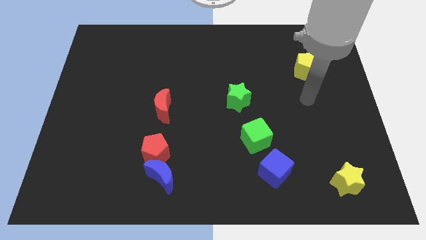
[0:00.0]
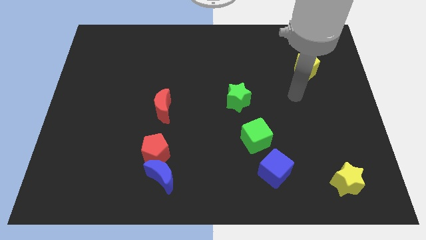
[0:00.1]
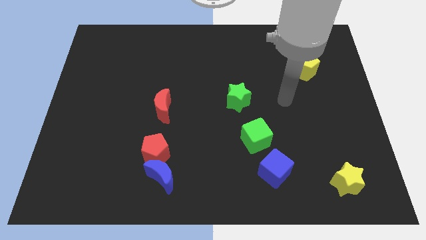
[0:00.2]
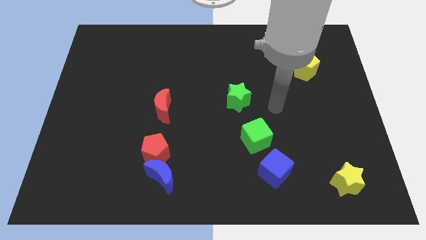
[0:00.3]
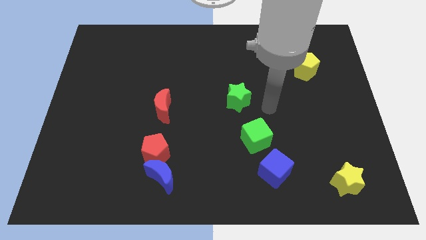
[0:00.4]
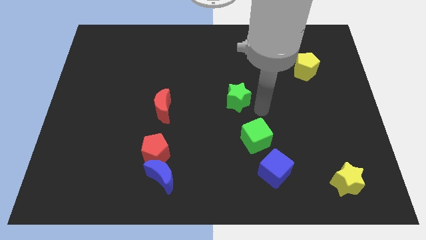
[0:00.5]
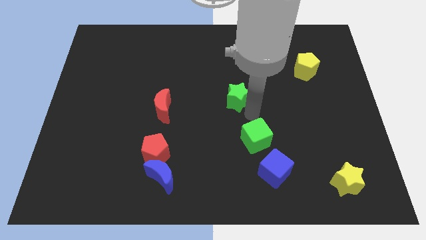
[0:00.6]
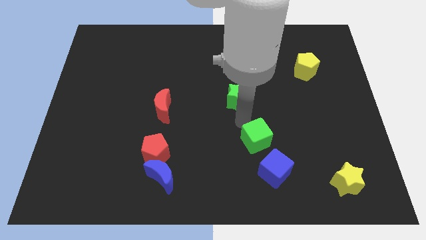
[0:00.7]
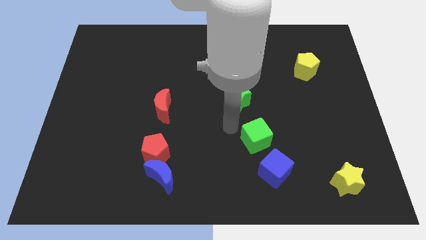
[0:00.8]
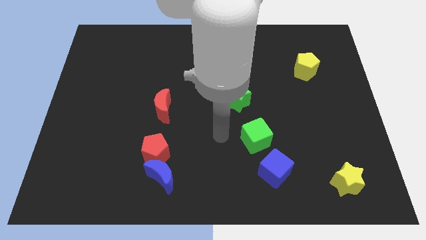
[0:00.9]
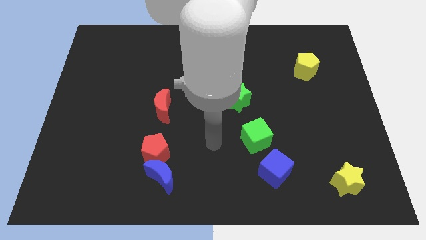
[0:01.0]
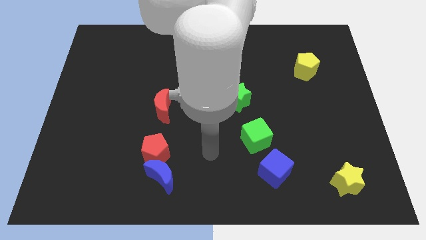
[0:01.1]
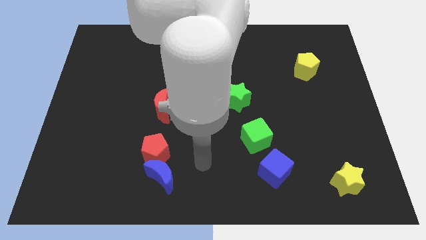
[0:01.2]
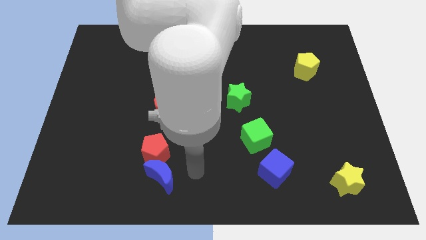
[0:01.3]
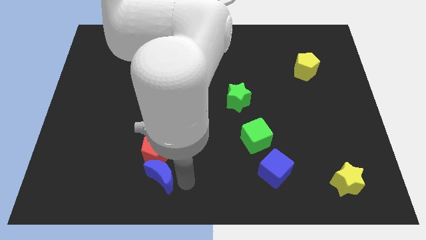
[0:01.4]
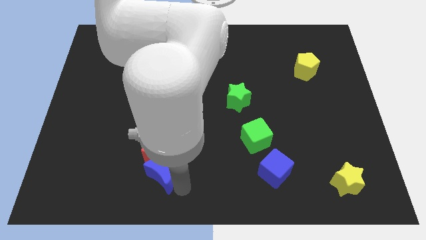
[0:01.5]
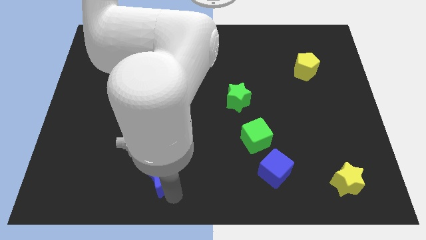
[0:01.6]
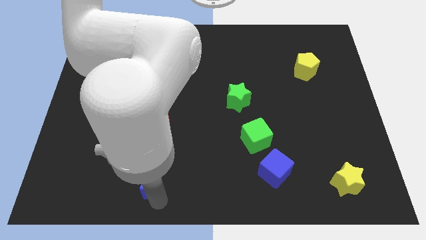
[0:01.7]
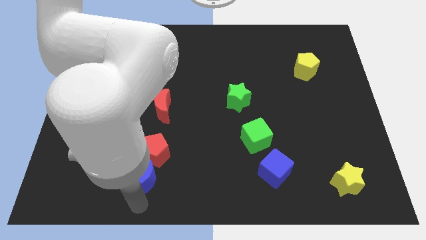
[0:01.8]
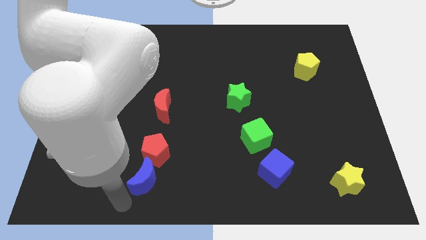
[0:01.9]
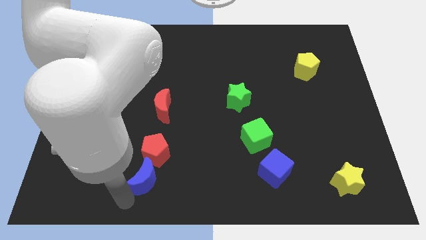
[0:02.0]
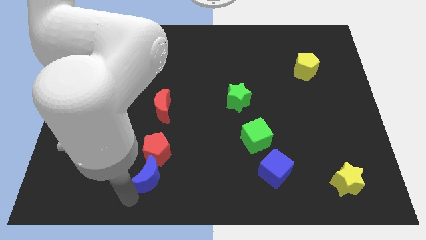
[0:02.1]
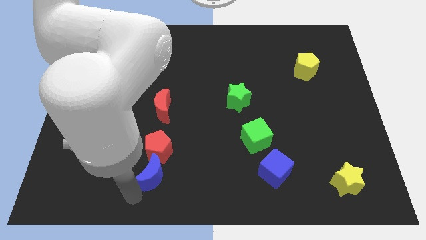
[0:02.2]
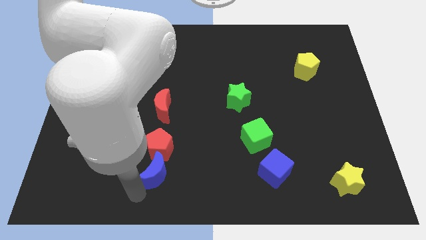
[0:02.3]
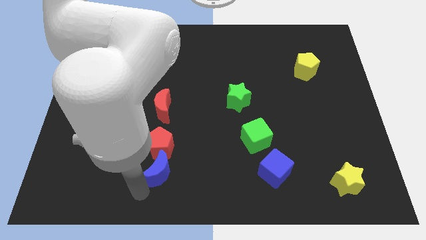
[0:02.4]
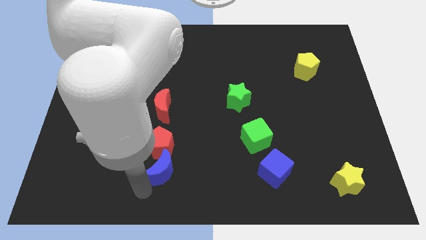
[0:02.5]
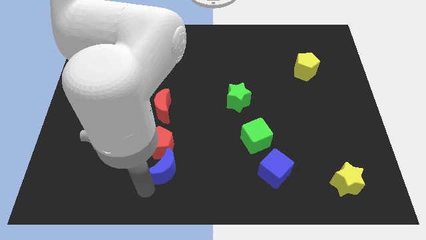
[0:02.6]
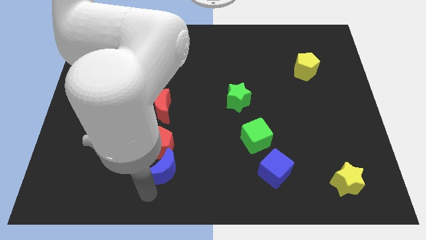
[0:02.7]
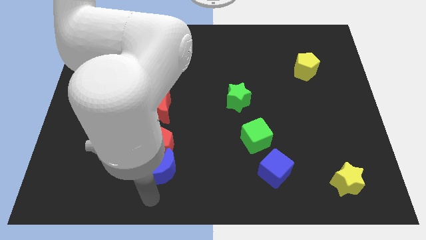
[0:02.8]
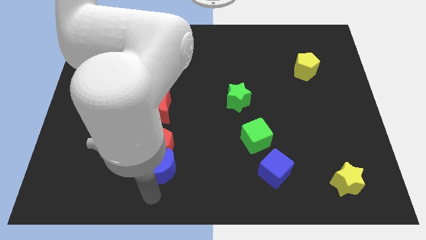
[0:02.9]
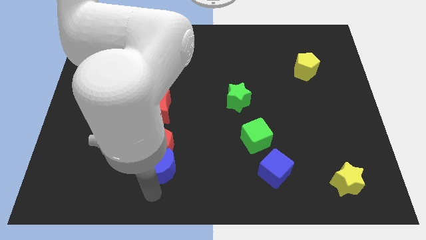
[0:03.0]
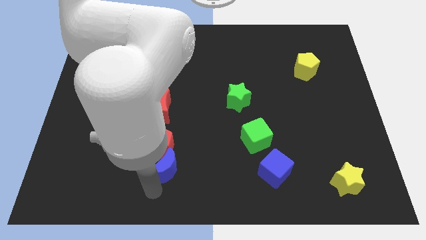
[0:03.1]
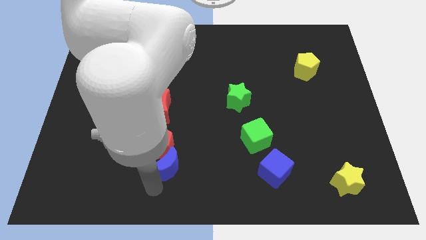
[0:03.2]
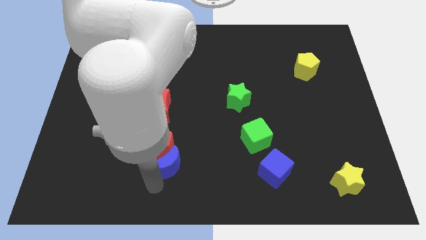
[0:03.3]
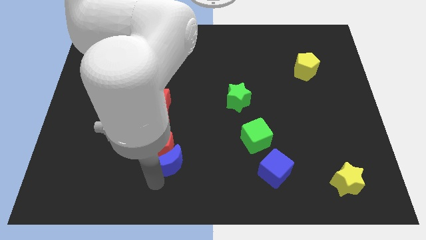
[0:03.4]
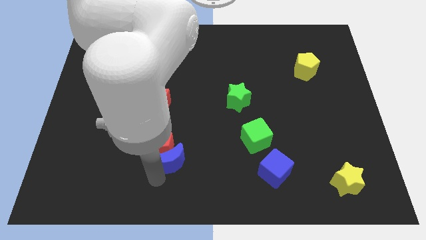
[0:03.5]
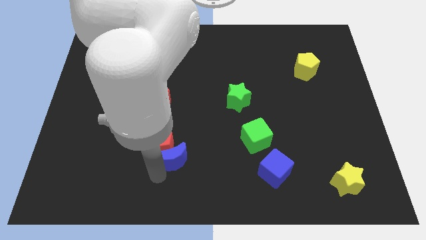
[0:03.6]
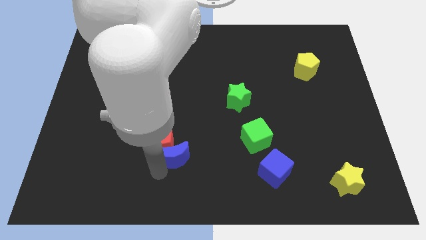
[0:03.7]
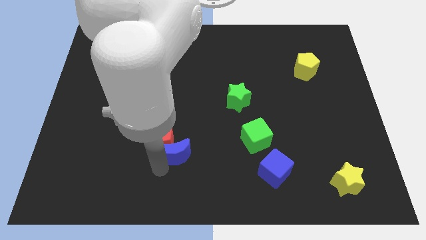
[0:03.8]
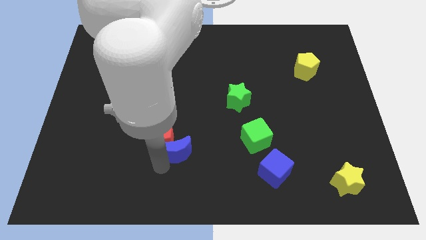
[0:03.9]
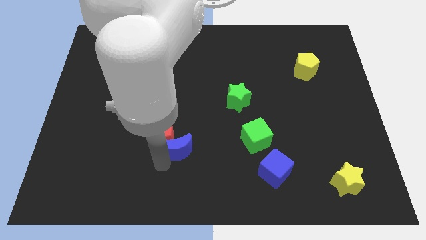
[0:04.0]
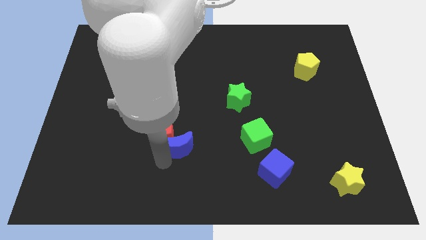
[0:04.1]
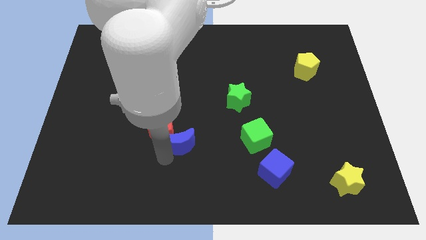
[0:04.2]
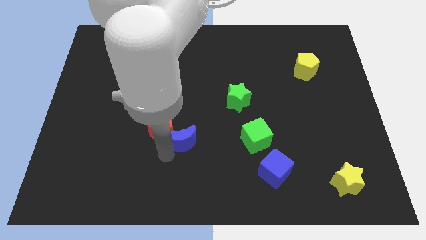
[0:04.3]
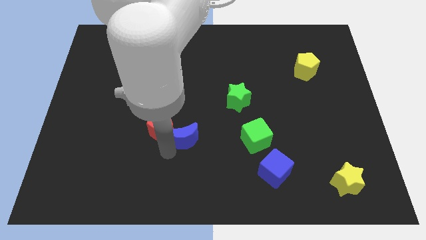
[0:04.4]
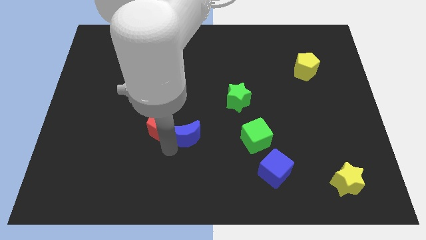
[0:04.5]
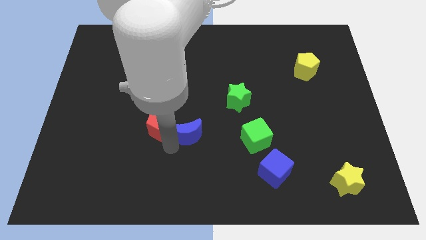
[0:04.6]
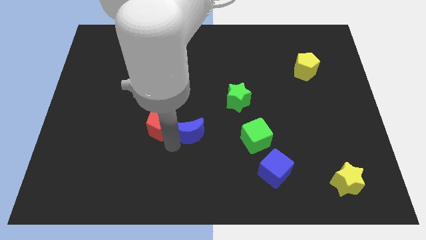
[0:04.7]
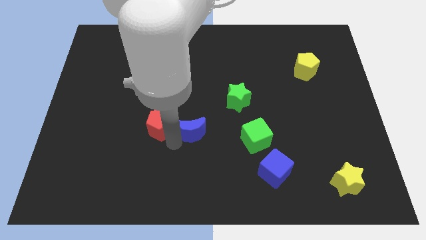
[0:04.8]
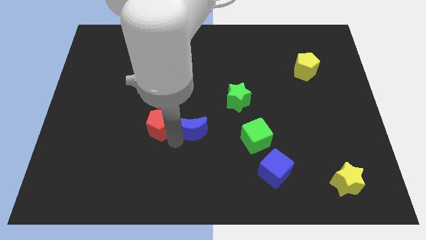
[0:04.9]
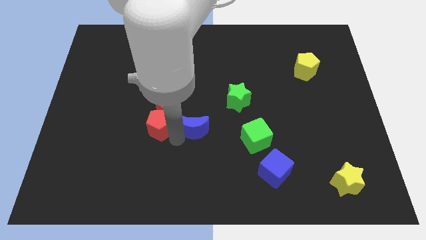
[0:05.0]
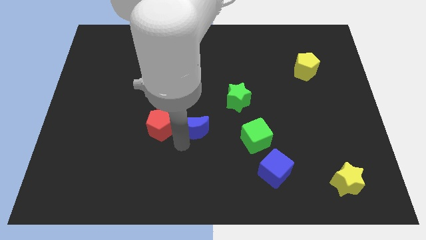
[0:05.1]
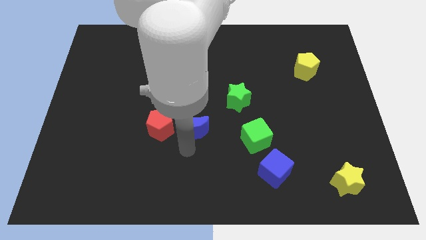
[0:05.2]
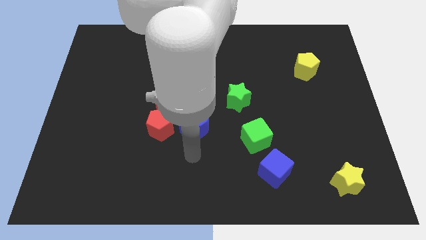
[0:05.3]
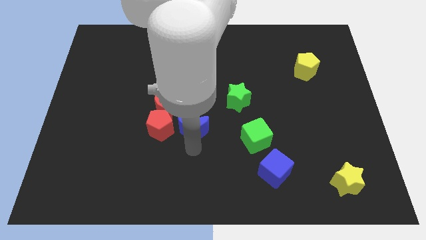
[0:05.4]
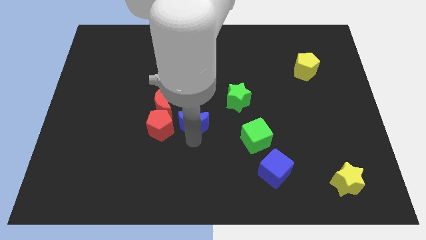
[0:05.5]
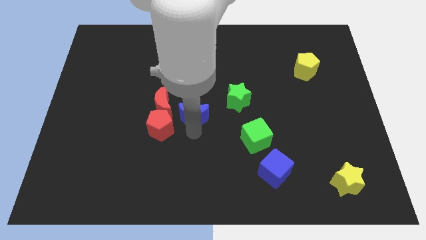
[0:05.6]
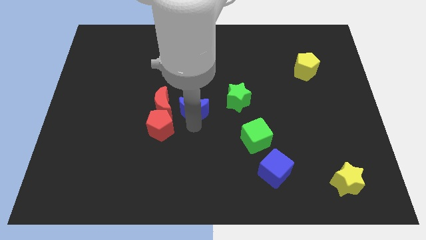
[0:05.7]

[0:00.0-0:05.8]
push the blue moon to the left of the green star

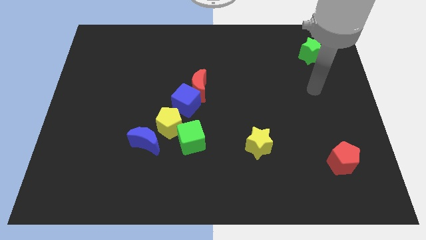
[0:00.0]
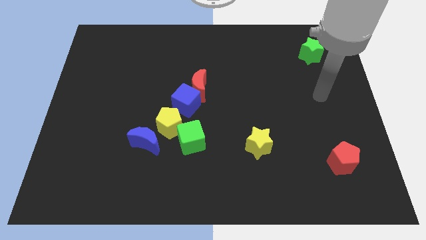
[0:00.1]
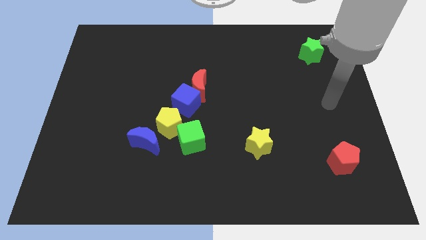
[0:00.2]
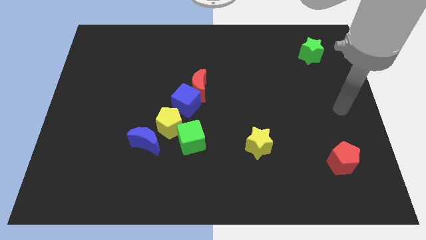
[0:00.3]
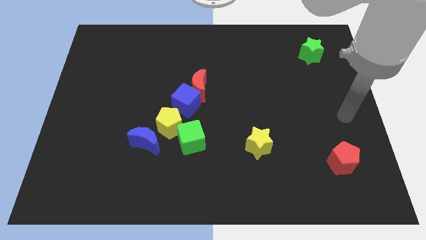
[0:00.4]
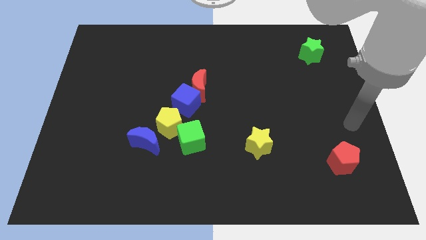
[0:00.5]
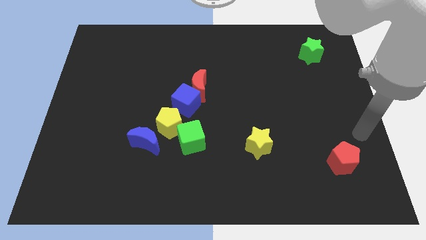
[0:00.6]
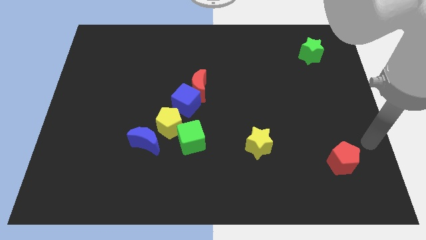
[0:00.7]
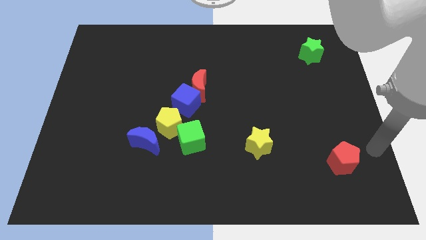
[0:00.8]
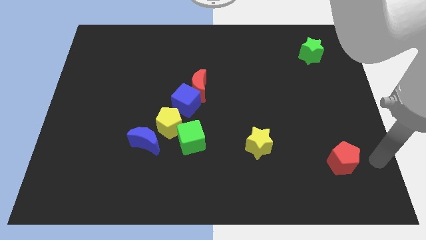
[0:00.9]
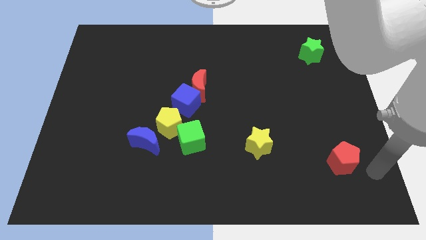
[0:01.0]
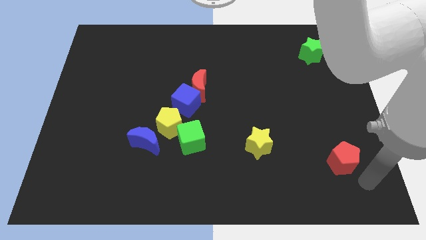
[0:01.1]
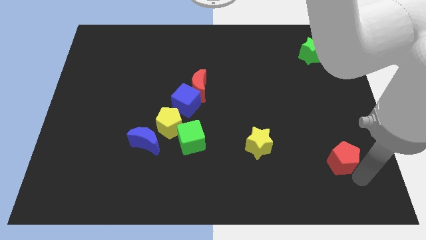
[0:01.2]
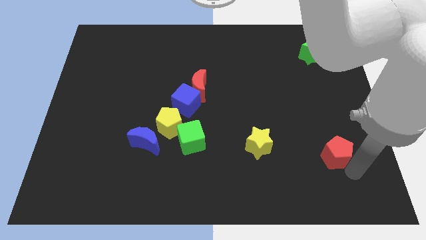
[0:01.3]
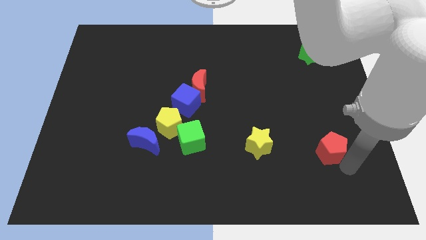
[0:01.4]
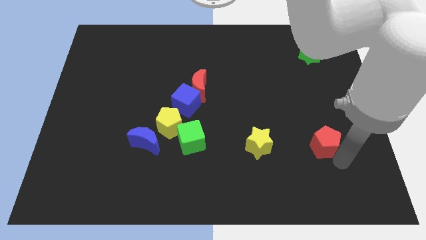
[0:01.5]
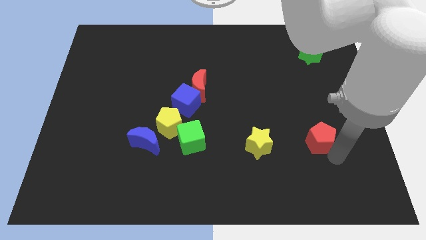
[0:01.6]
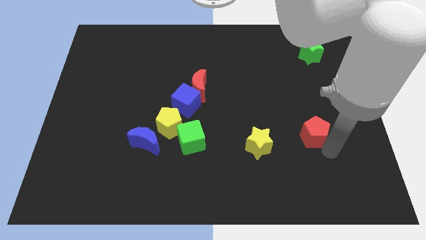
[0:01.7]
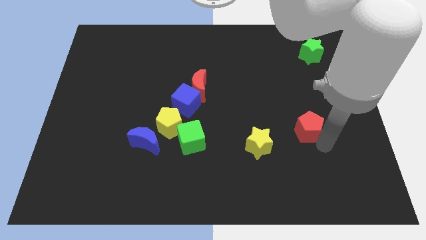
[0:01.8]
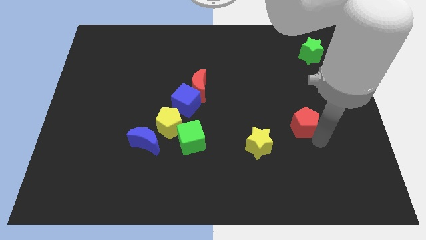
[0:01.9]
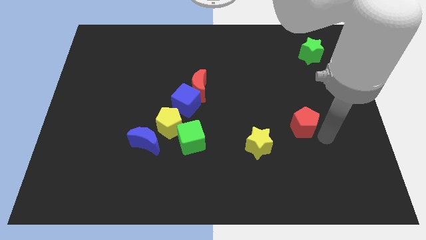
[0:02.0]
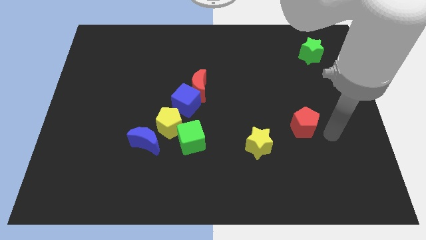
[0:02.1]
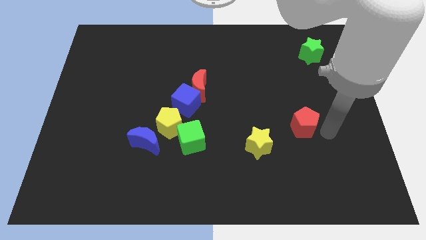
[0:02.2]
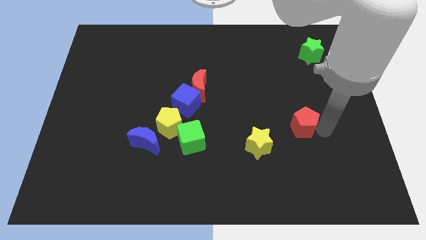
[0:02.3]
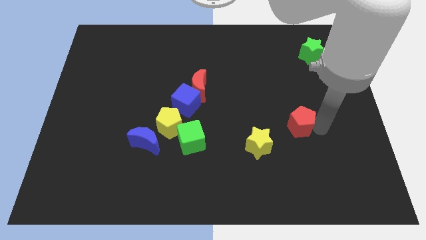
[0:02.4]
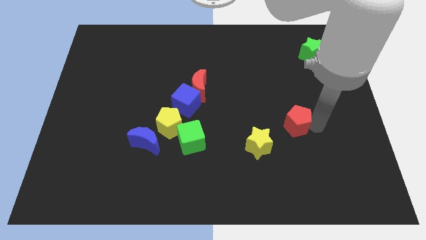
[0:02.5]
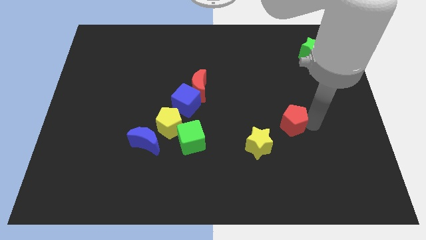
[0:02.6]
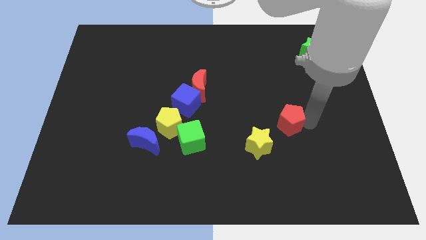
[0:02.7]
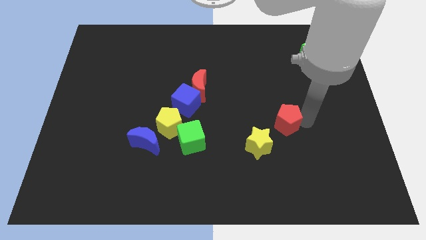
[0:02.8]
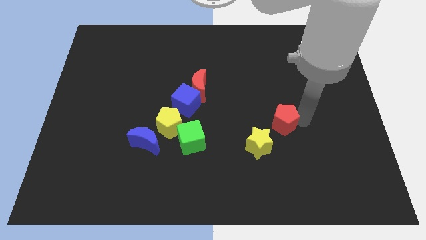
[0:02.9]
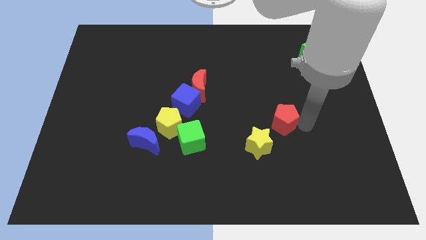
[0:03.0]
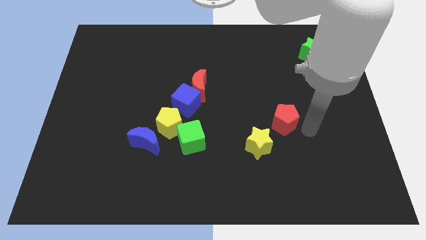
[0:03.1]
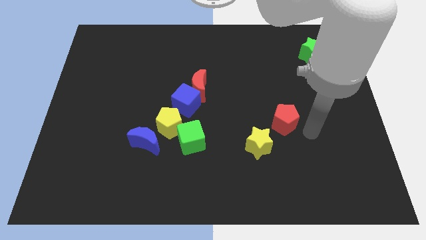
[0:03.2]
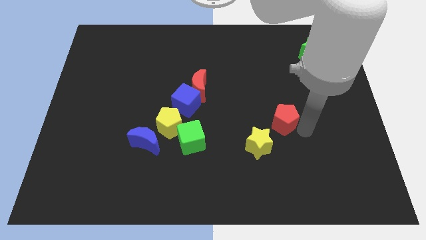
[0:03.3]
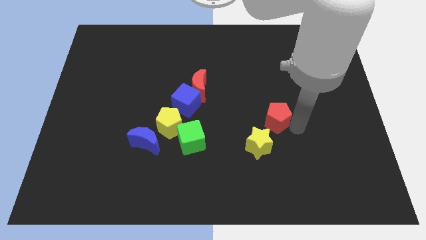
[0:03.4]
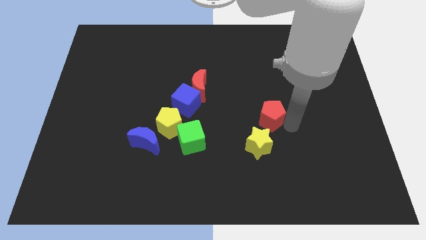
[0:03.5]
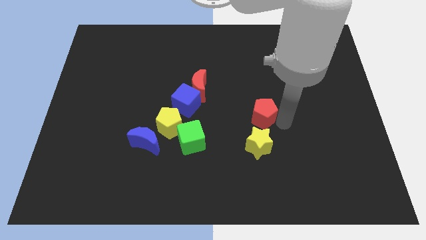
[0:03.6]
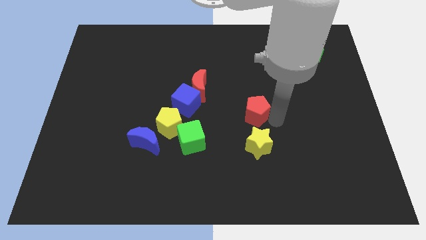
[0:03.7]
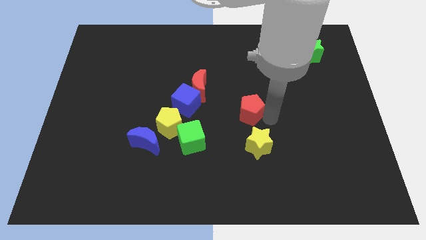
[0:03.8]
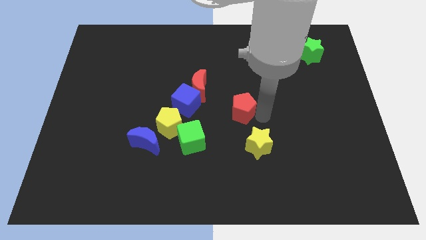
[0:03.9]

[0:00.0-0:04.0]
slide the red pentagon to the bottom right side of the red moon
